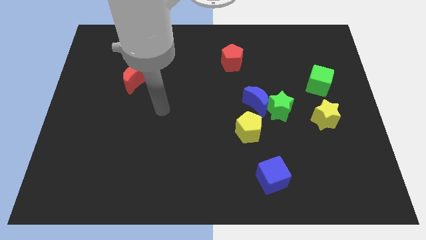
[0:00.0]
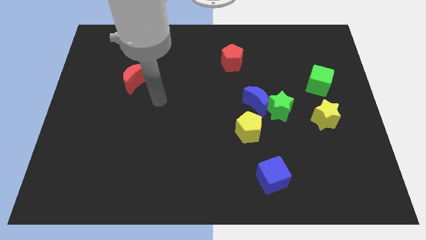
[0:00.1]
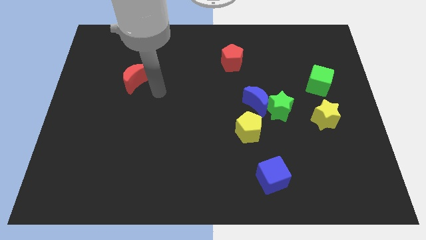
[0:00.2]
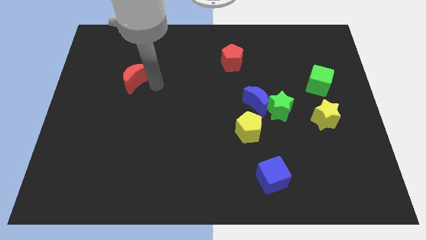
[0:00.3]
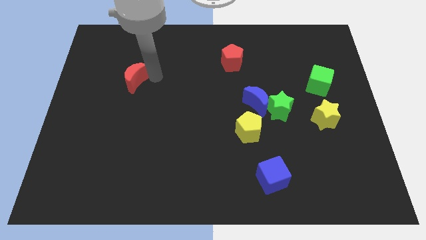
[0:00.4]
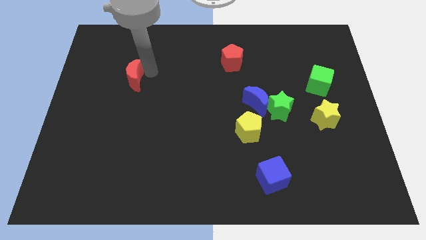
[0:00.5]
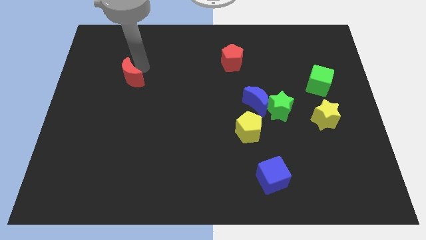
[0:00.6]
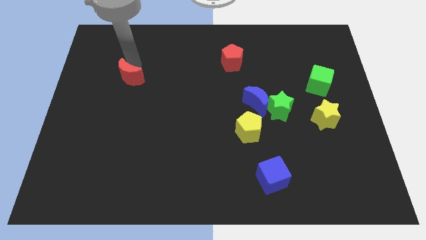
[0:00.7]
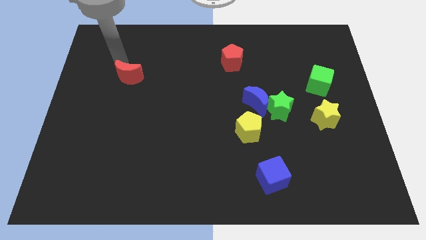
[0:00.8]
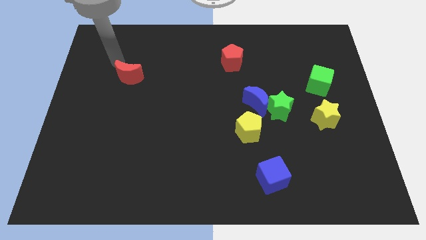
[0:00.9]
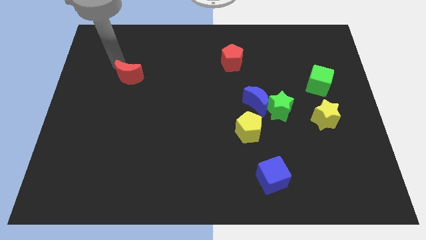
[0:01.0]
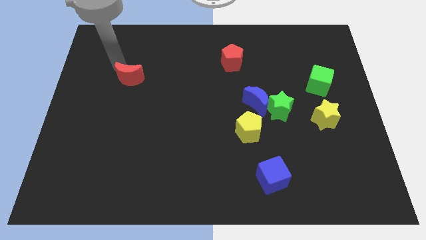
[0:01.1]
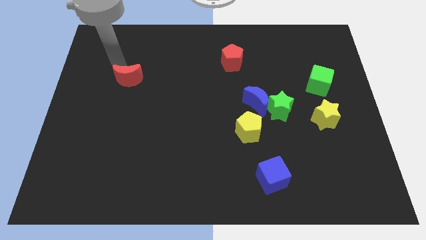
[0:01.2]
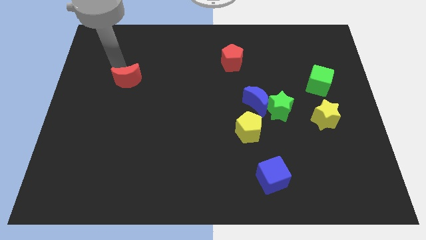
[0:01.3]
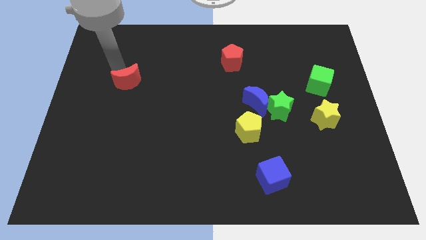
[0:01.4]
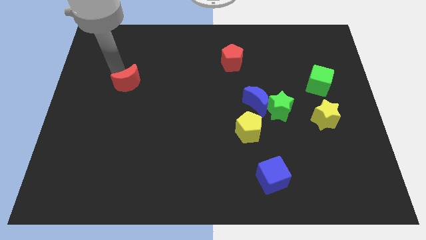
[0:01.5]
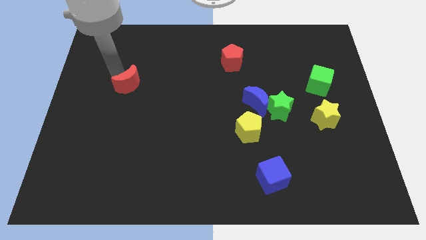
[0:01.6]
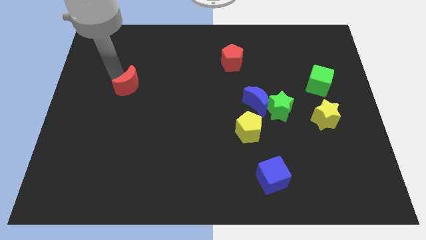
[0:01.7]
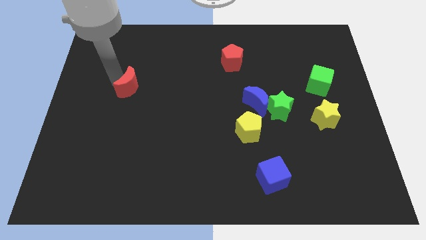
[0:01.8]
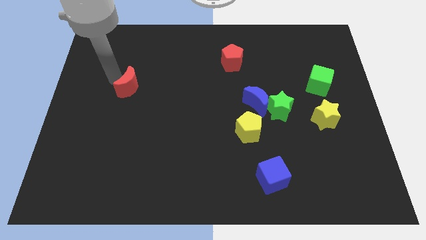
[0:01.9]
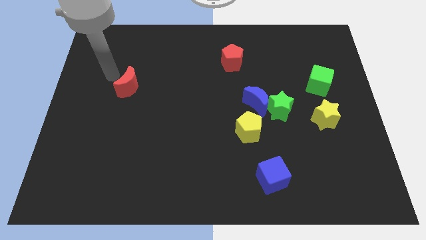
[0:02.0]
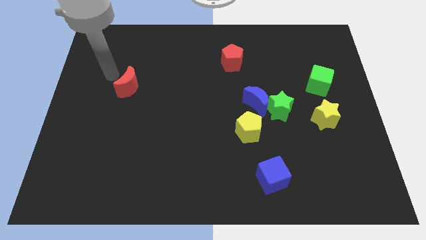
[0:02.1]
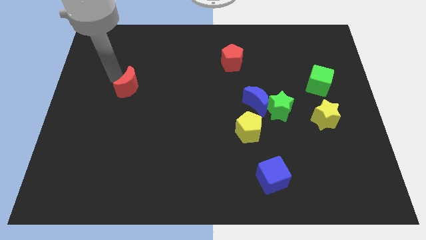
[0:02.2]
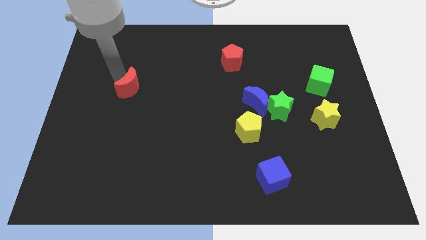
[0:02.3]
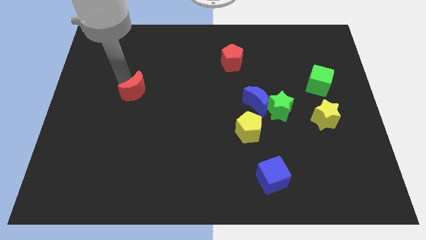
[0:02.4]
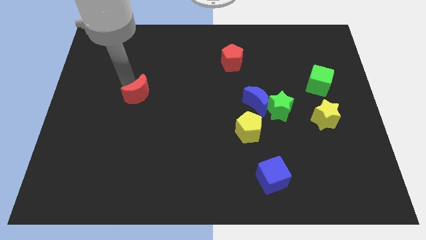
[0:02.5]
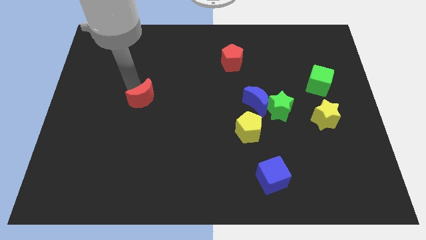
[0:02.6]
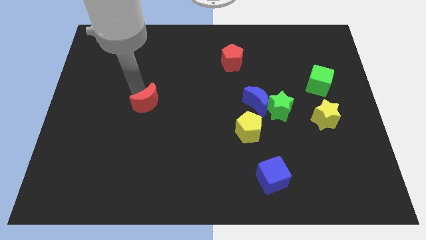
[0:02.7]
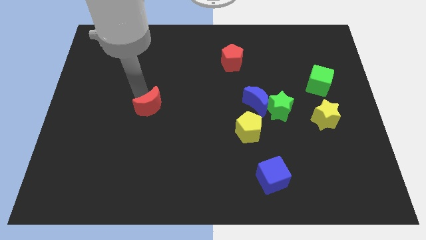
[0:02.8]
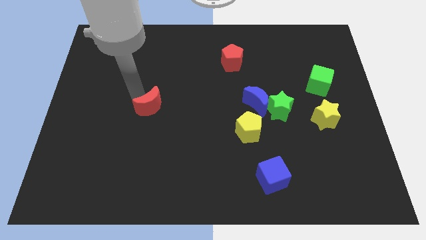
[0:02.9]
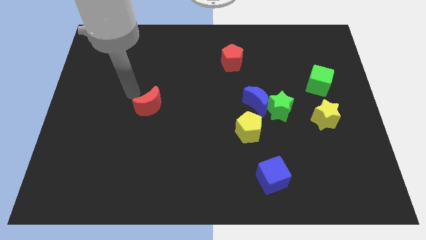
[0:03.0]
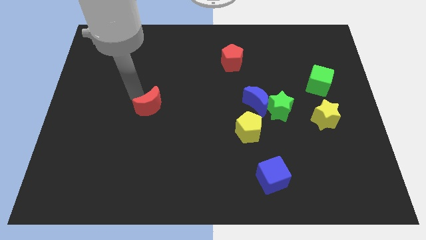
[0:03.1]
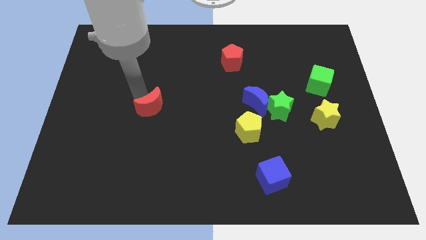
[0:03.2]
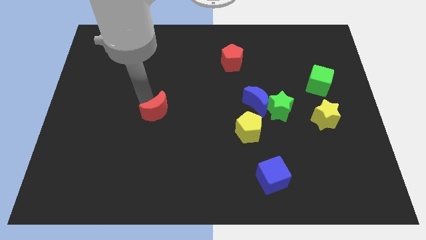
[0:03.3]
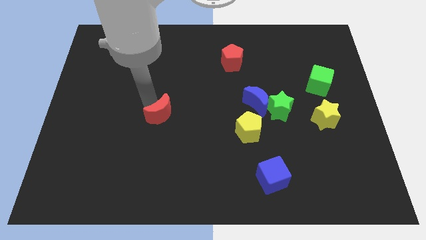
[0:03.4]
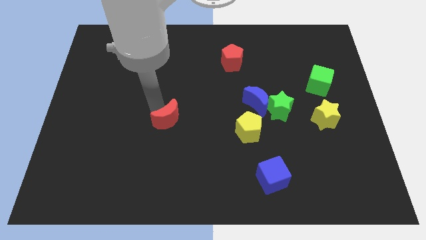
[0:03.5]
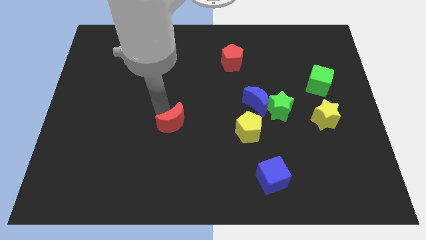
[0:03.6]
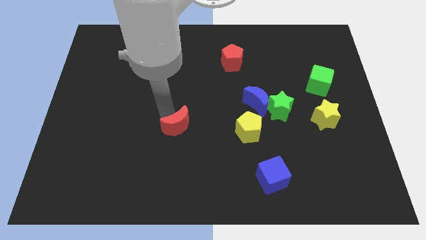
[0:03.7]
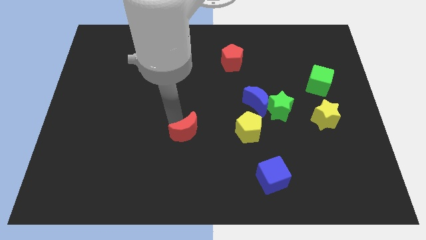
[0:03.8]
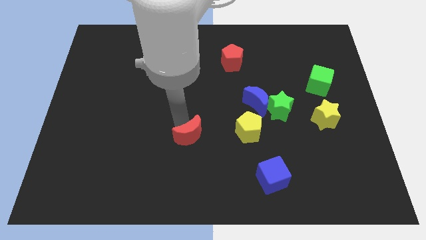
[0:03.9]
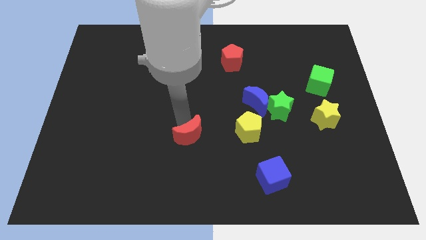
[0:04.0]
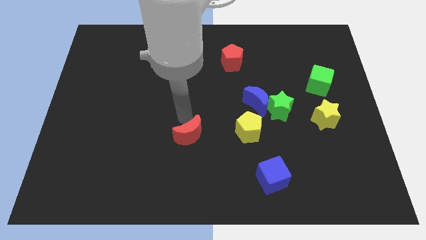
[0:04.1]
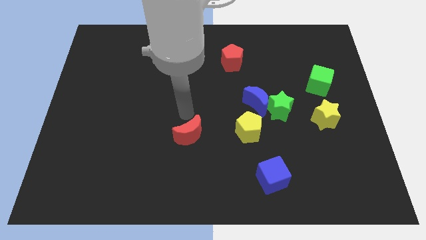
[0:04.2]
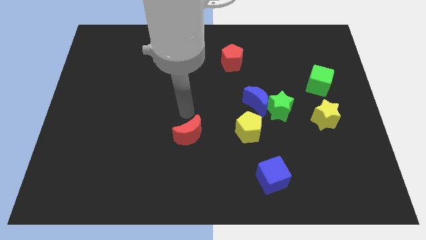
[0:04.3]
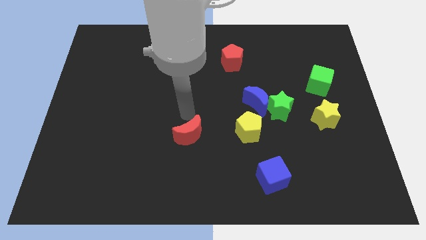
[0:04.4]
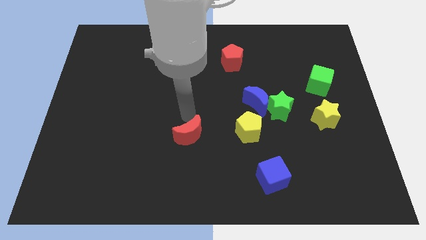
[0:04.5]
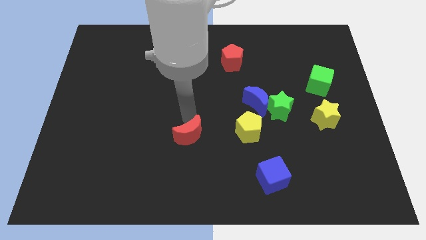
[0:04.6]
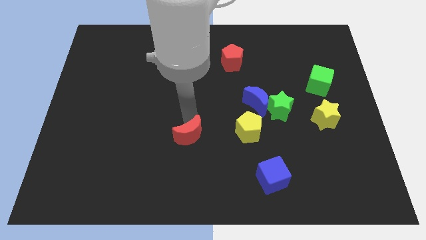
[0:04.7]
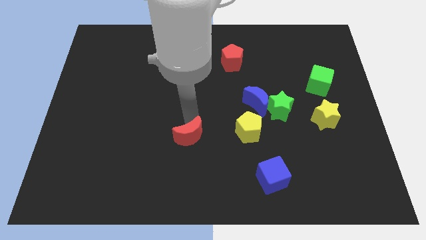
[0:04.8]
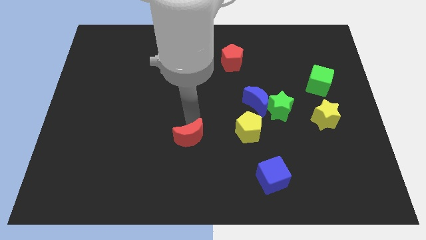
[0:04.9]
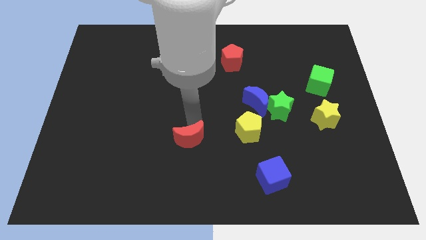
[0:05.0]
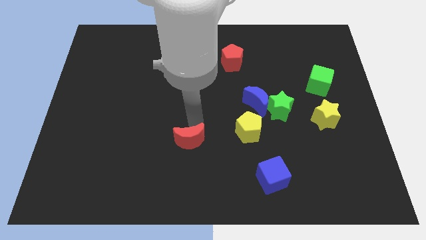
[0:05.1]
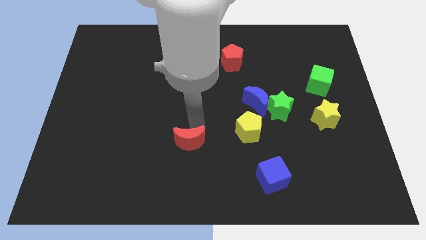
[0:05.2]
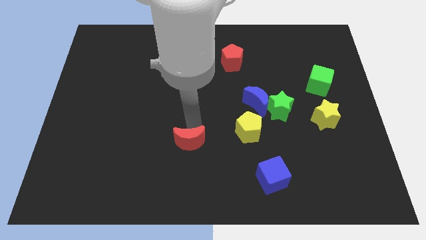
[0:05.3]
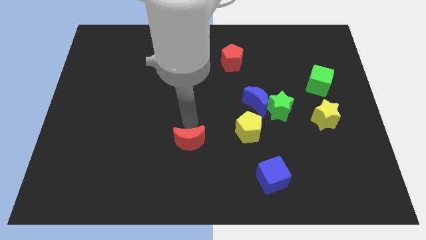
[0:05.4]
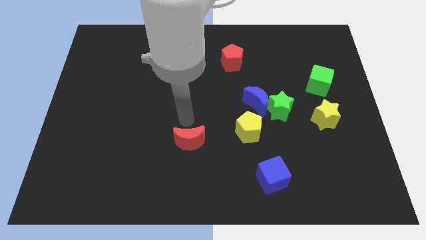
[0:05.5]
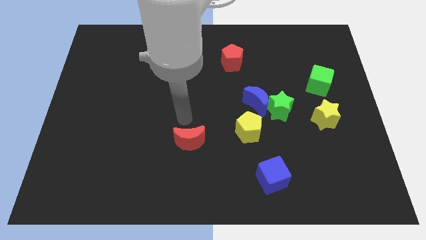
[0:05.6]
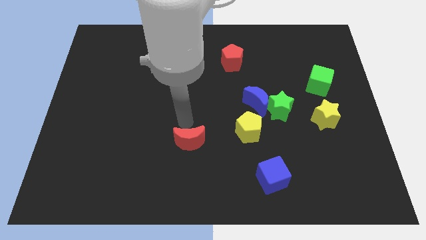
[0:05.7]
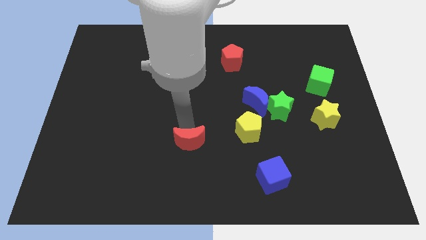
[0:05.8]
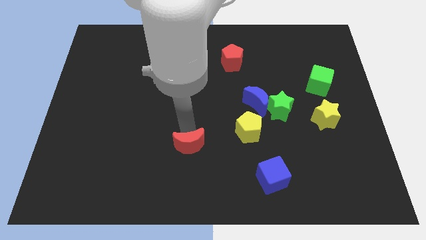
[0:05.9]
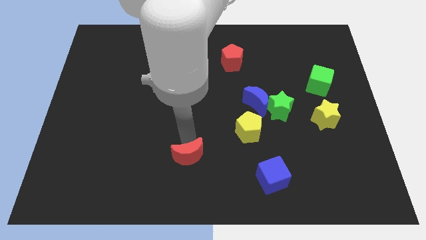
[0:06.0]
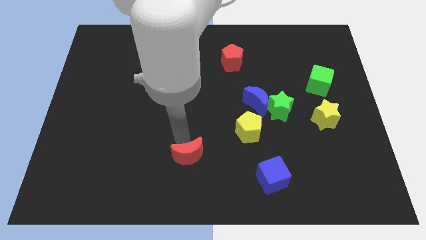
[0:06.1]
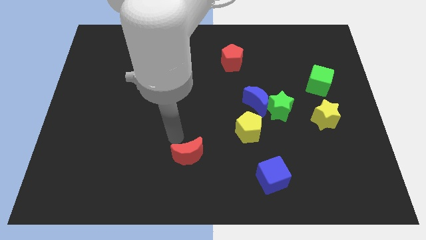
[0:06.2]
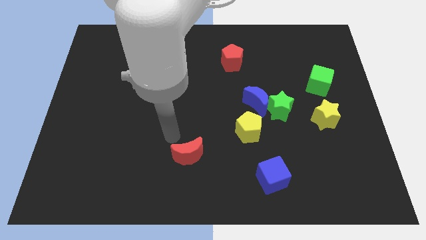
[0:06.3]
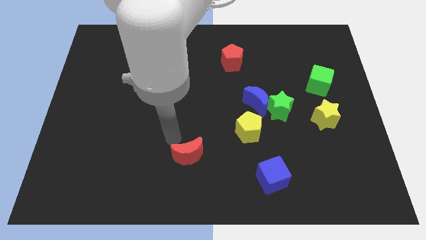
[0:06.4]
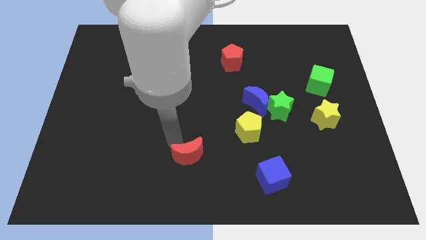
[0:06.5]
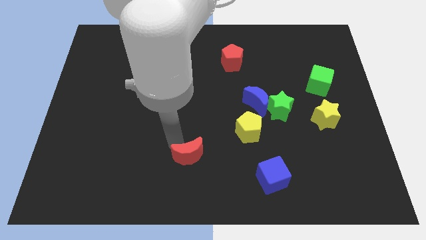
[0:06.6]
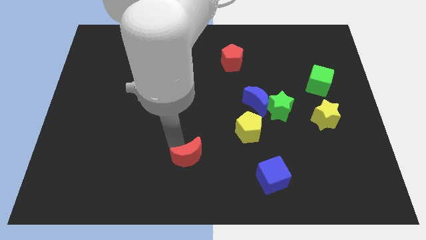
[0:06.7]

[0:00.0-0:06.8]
move the red moon to the bottom

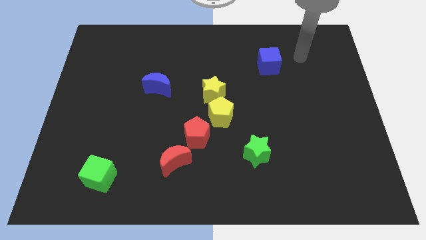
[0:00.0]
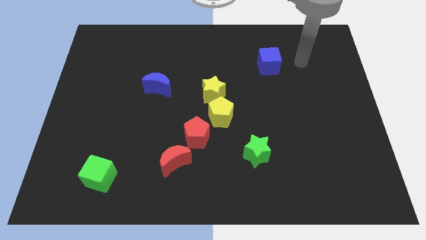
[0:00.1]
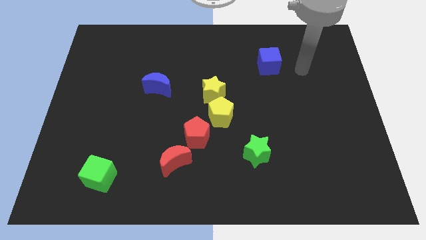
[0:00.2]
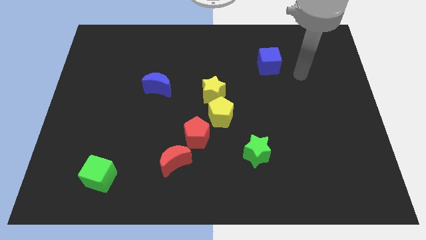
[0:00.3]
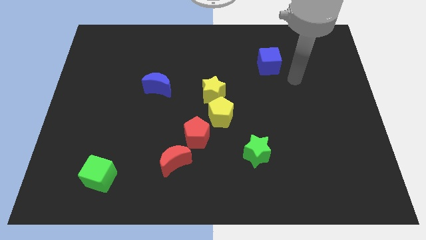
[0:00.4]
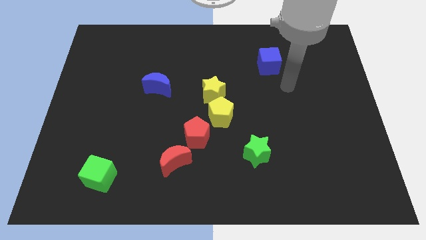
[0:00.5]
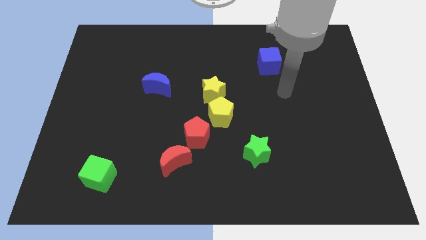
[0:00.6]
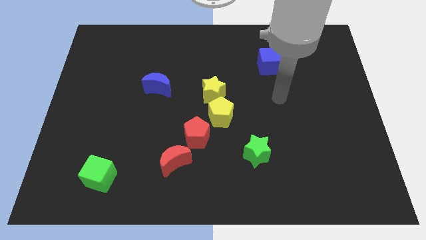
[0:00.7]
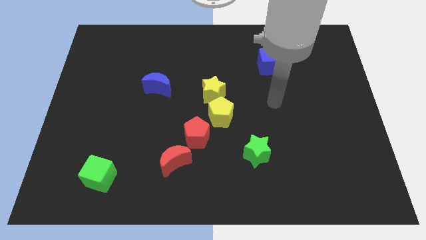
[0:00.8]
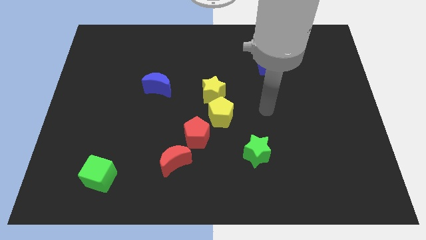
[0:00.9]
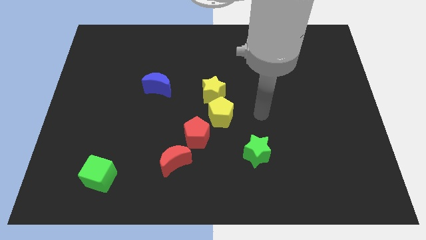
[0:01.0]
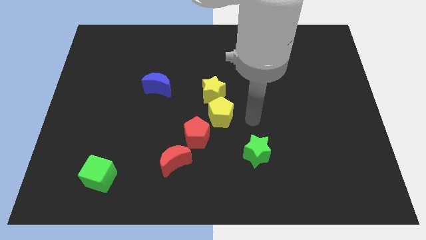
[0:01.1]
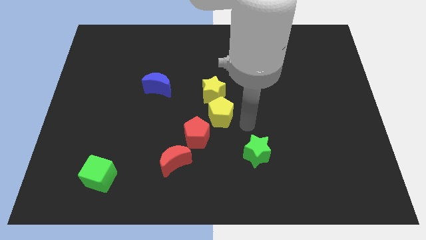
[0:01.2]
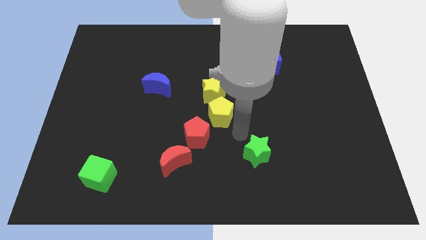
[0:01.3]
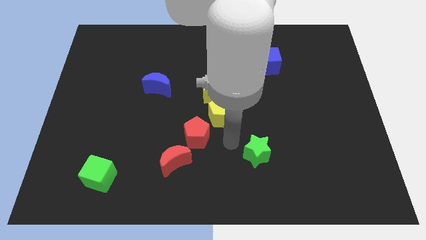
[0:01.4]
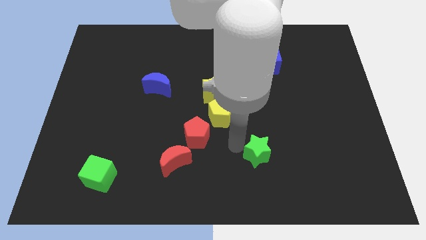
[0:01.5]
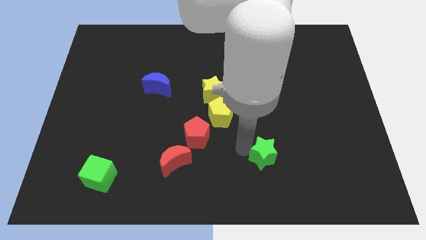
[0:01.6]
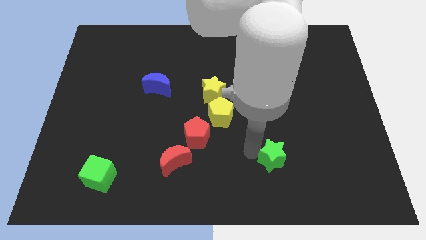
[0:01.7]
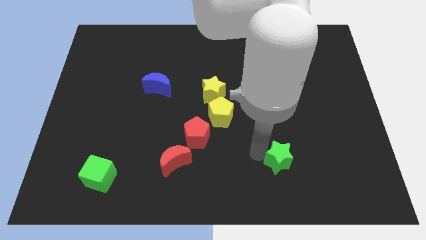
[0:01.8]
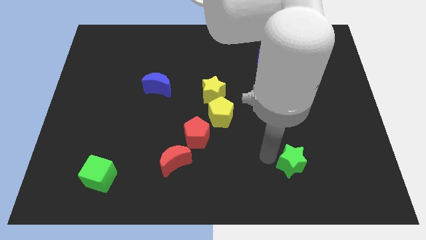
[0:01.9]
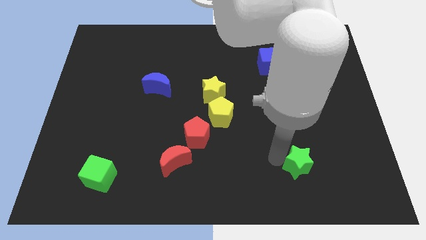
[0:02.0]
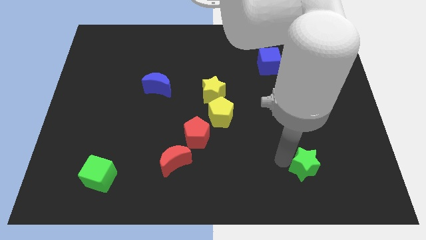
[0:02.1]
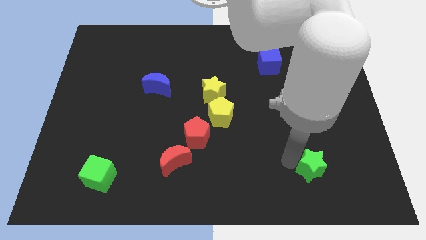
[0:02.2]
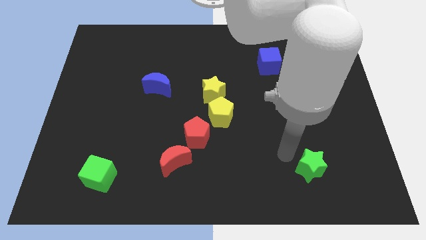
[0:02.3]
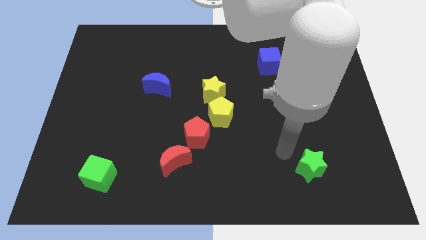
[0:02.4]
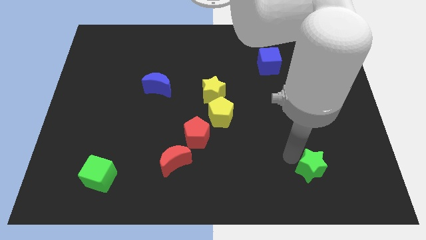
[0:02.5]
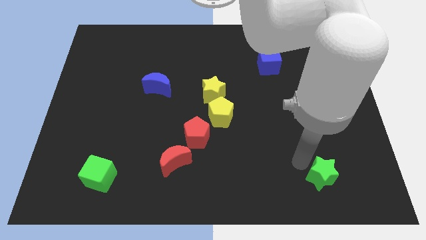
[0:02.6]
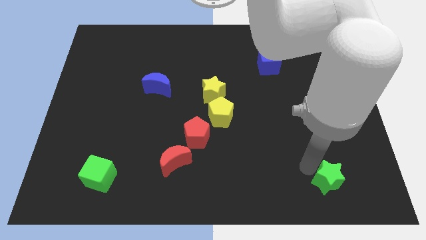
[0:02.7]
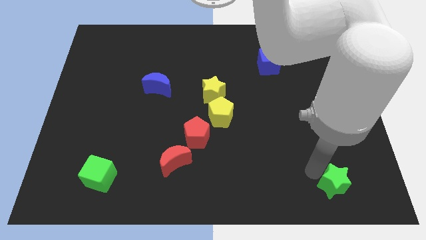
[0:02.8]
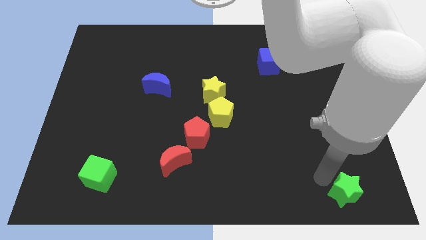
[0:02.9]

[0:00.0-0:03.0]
put the green star to the bottom right corner
